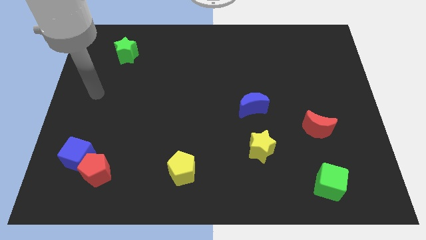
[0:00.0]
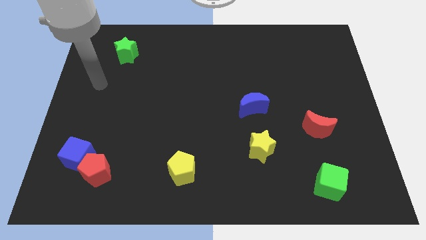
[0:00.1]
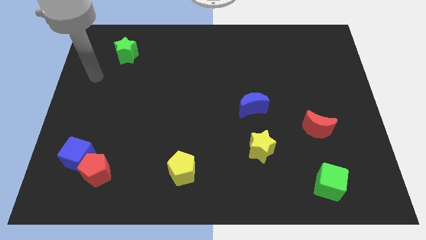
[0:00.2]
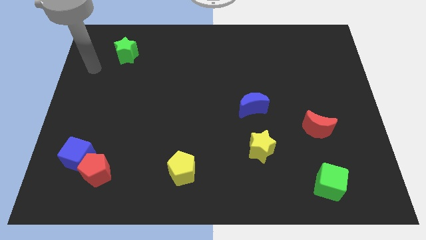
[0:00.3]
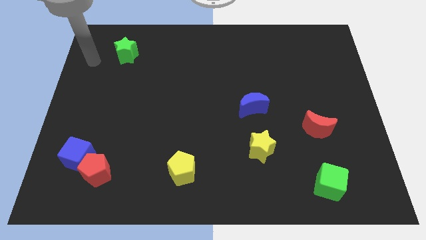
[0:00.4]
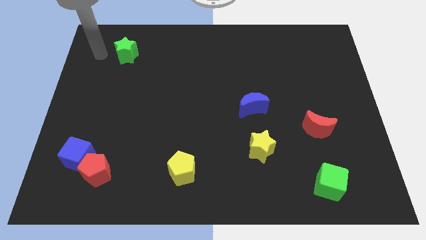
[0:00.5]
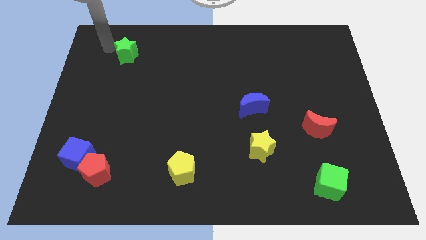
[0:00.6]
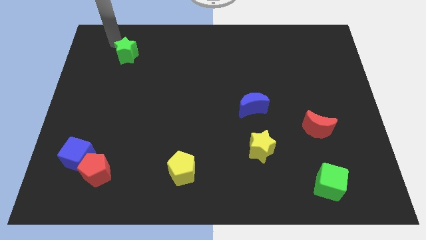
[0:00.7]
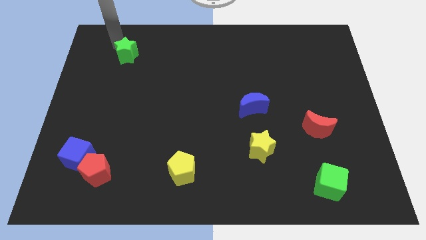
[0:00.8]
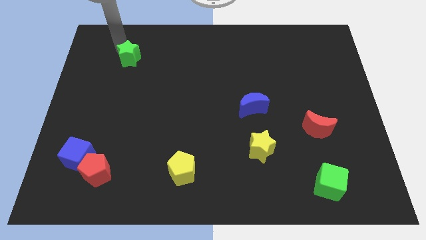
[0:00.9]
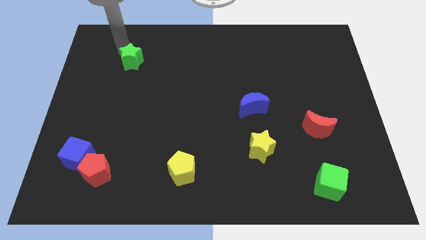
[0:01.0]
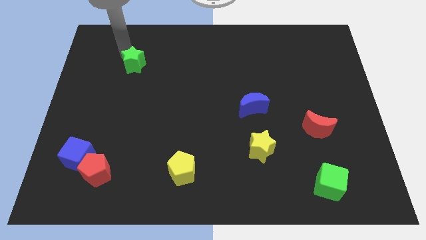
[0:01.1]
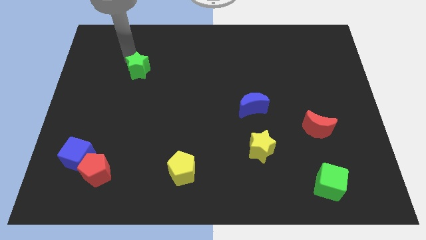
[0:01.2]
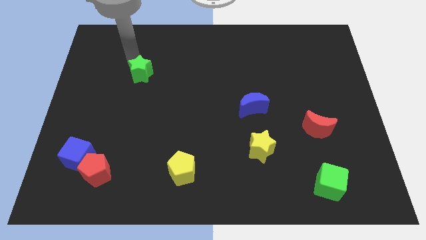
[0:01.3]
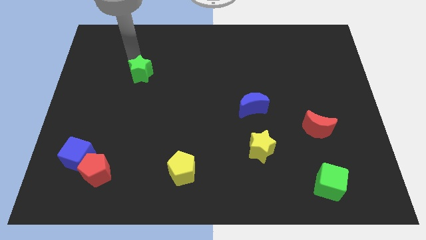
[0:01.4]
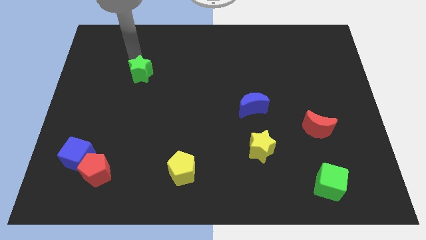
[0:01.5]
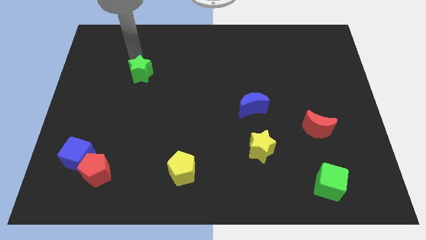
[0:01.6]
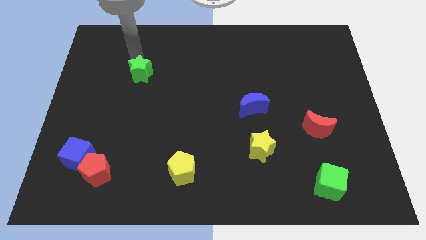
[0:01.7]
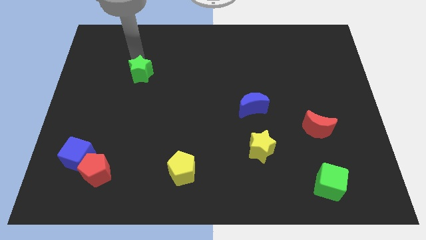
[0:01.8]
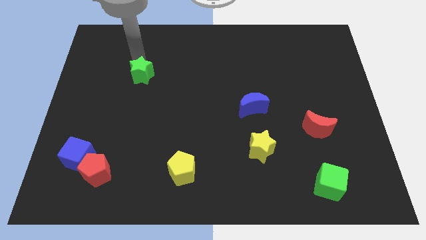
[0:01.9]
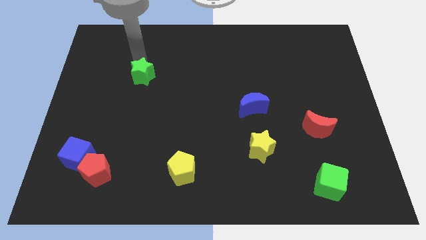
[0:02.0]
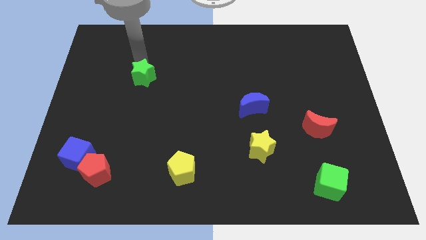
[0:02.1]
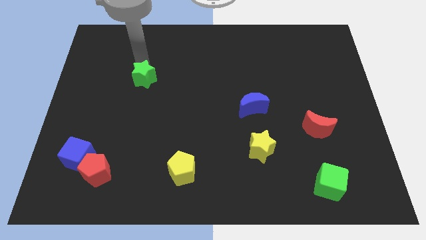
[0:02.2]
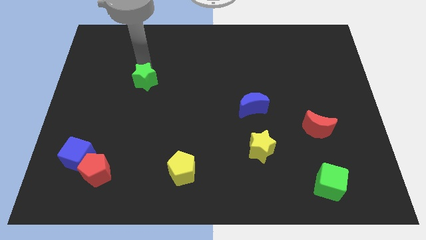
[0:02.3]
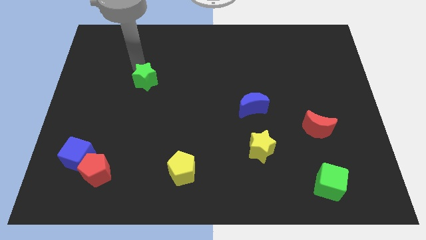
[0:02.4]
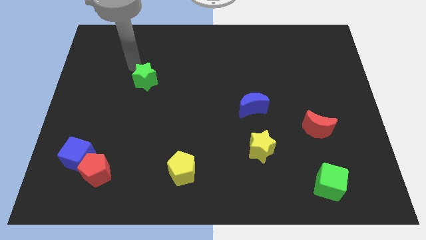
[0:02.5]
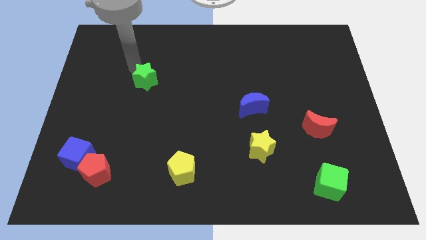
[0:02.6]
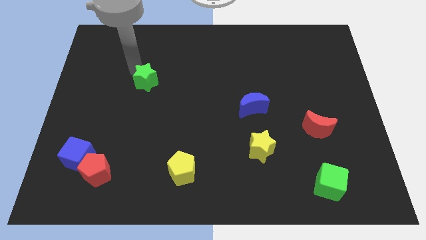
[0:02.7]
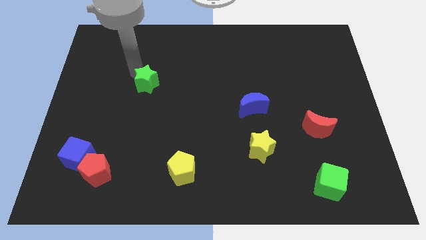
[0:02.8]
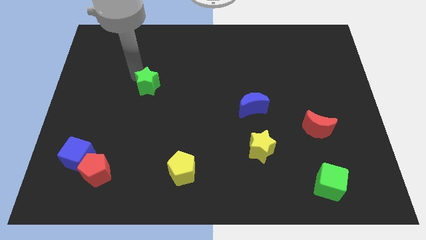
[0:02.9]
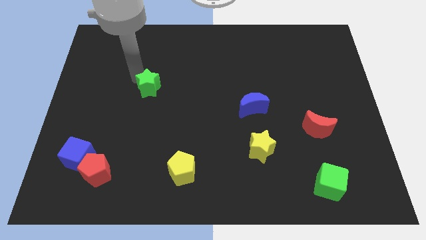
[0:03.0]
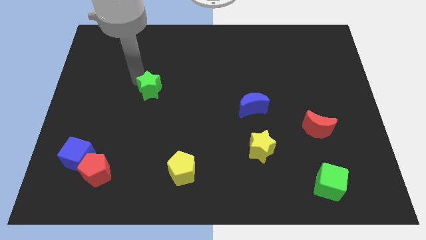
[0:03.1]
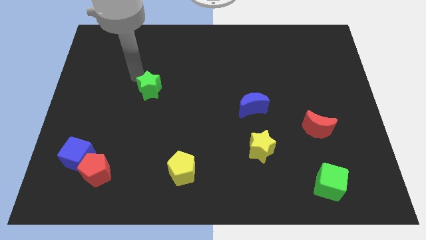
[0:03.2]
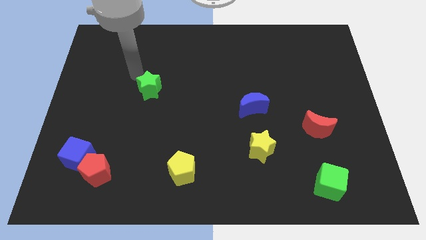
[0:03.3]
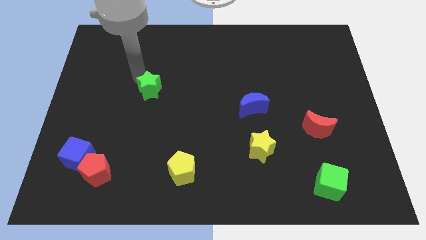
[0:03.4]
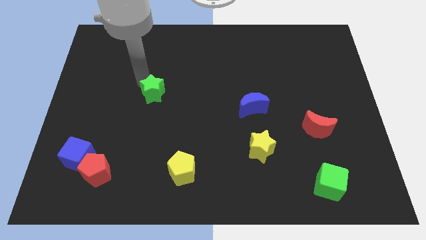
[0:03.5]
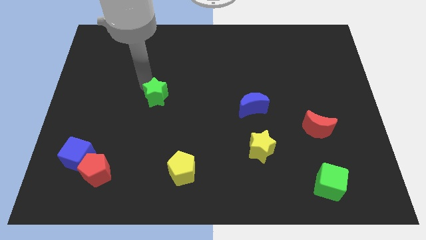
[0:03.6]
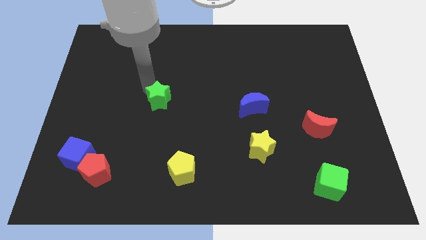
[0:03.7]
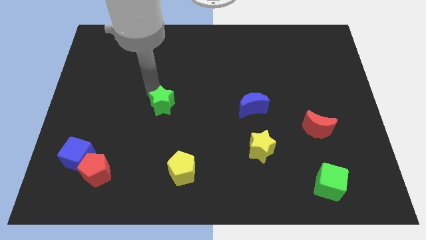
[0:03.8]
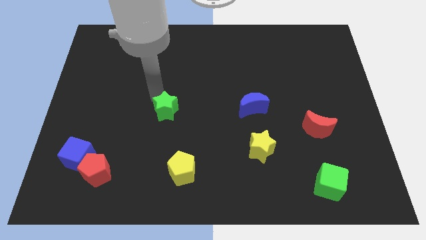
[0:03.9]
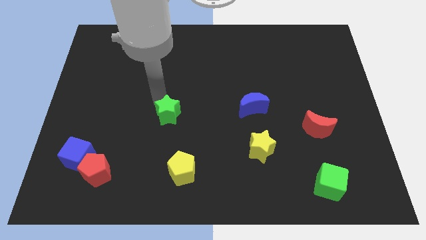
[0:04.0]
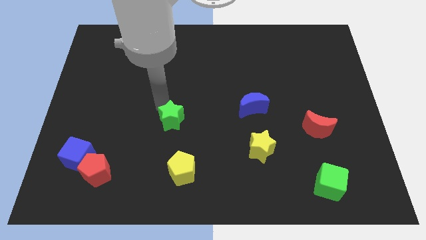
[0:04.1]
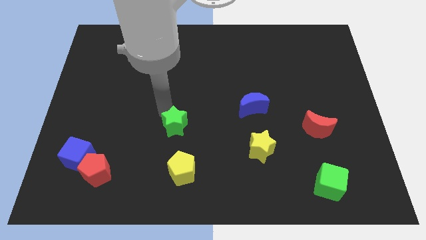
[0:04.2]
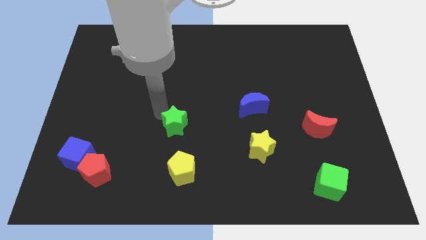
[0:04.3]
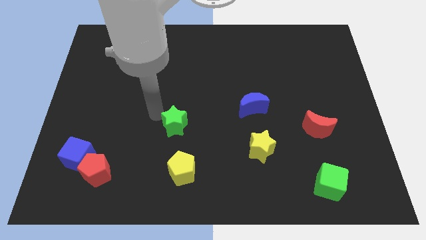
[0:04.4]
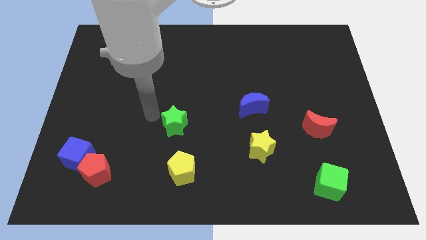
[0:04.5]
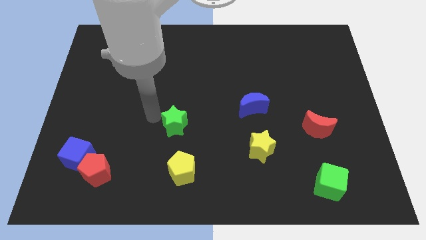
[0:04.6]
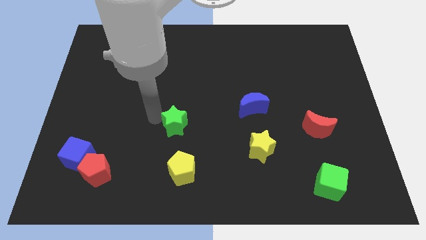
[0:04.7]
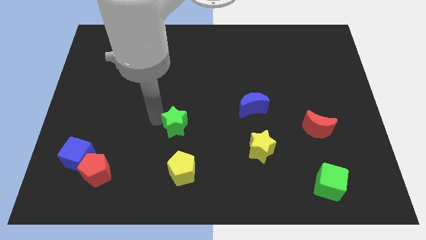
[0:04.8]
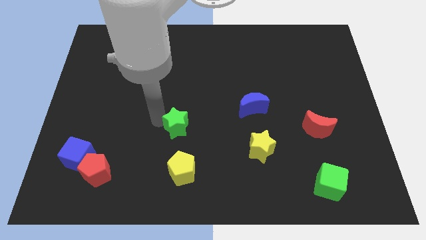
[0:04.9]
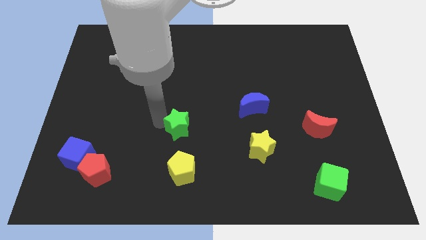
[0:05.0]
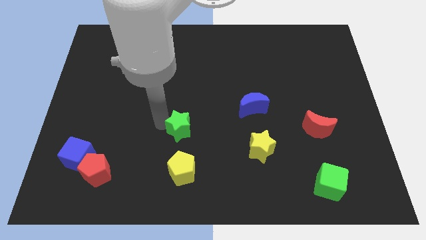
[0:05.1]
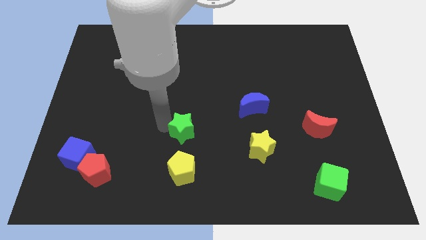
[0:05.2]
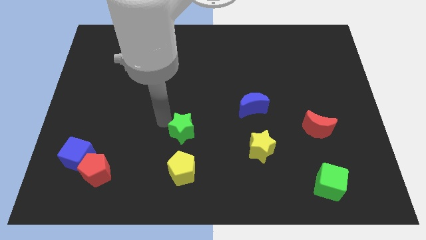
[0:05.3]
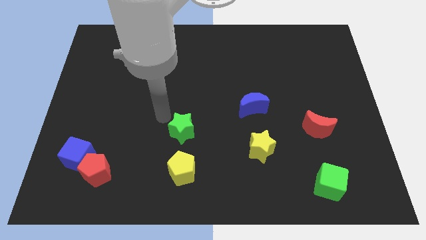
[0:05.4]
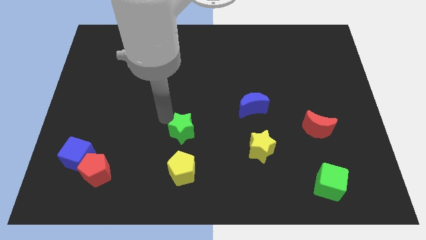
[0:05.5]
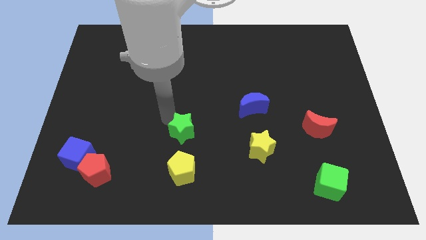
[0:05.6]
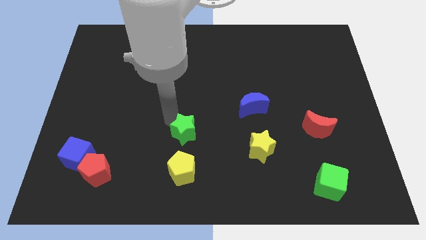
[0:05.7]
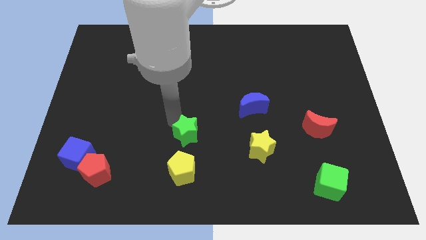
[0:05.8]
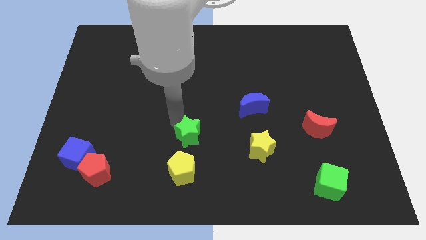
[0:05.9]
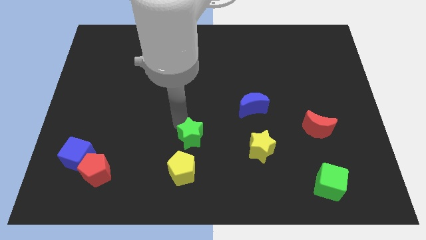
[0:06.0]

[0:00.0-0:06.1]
slide the green star diagonally up and to the right of the yellow pentagon

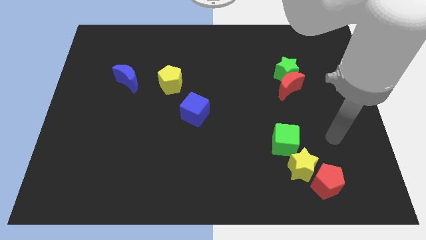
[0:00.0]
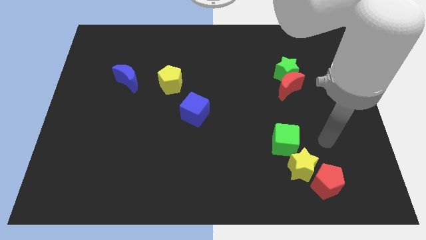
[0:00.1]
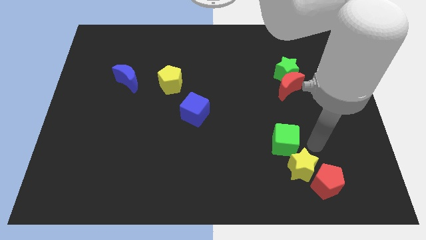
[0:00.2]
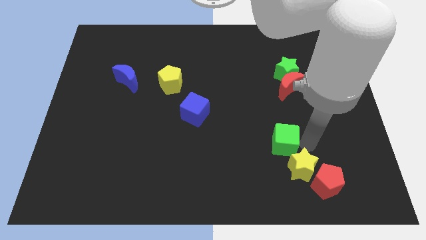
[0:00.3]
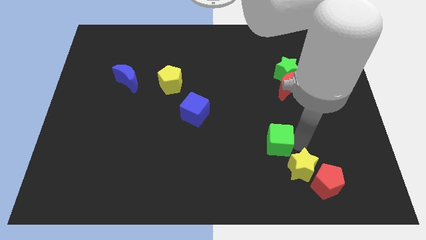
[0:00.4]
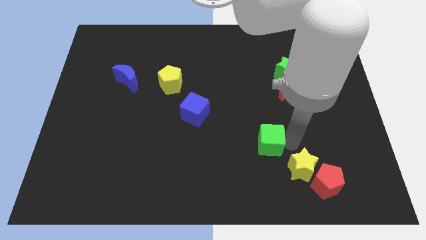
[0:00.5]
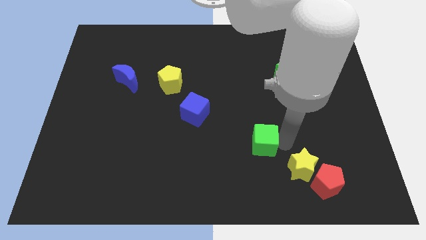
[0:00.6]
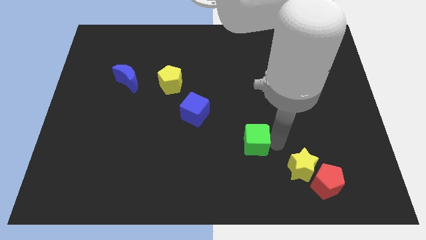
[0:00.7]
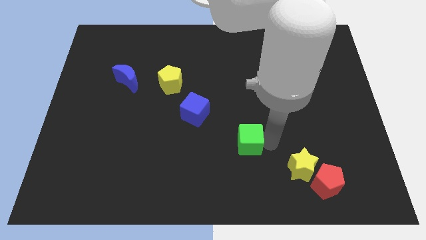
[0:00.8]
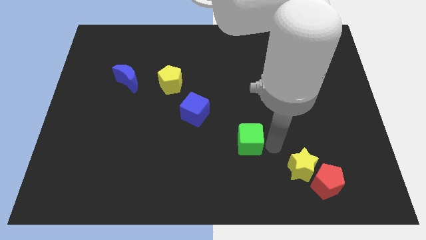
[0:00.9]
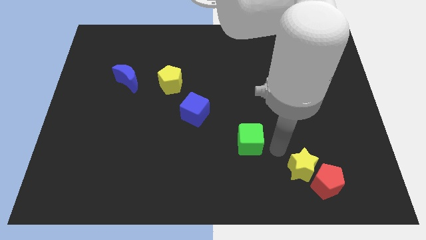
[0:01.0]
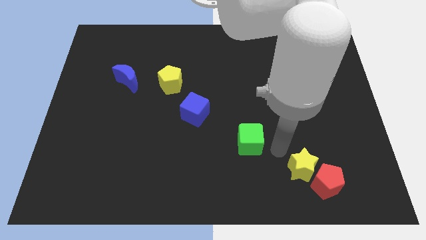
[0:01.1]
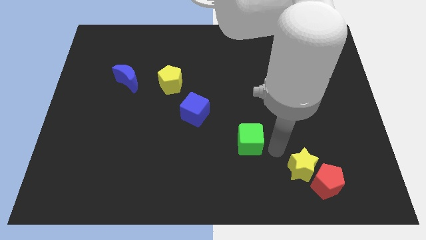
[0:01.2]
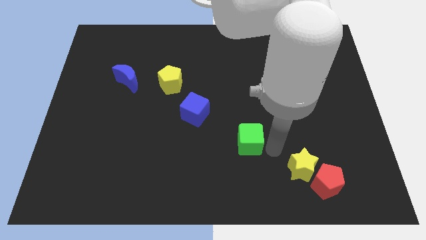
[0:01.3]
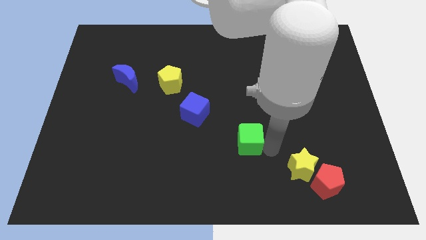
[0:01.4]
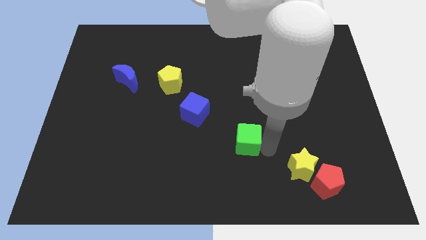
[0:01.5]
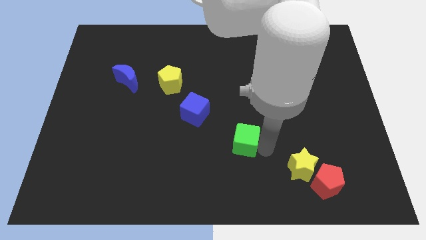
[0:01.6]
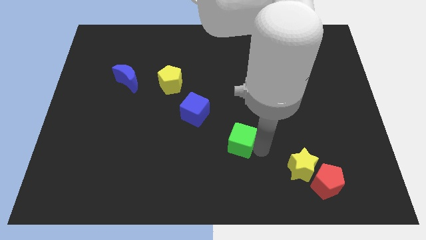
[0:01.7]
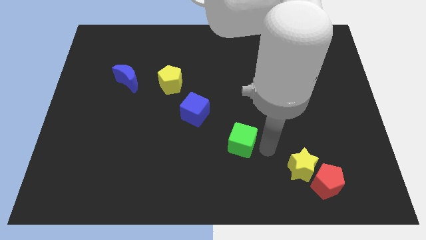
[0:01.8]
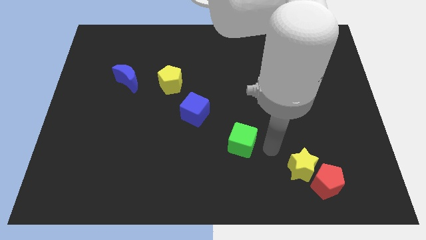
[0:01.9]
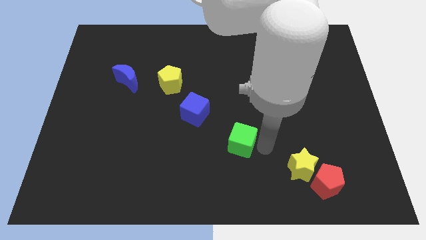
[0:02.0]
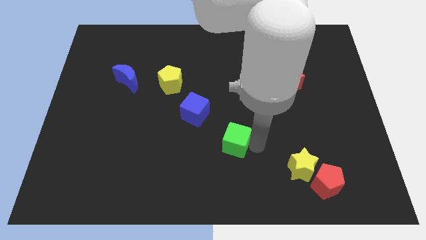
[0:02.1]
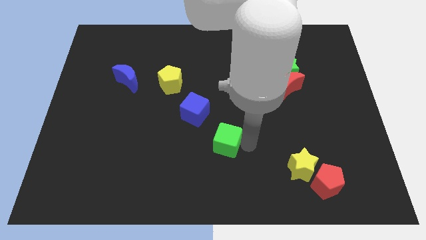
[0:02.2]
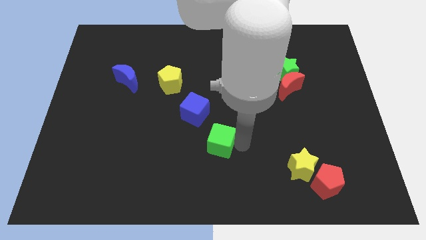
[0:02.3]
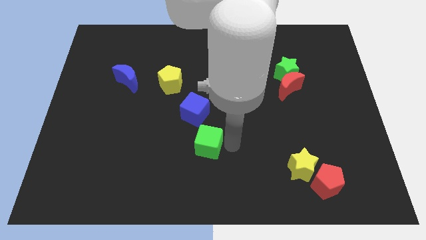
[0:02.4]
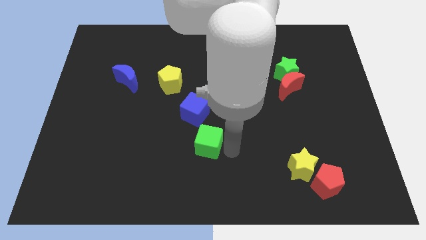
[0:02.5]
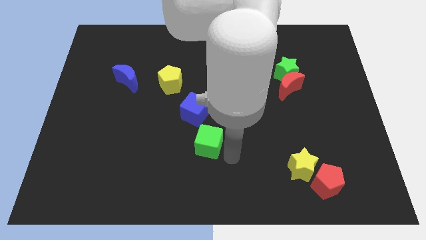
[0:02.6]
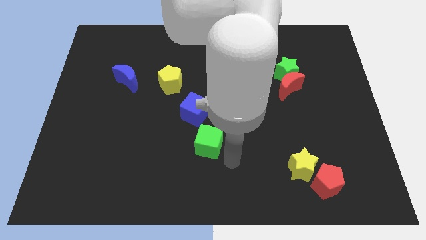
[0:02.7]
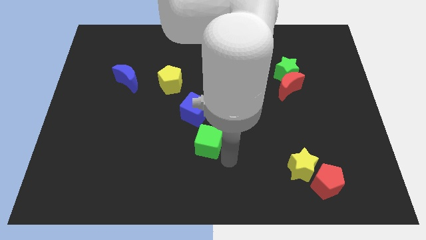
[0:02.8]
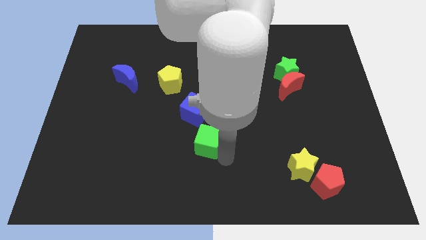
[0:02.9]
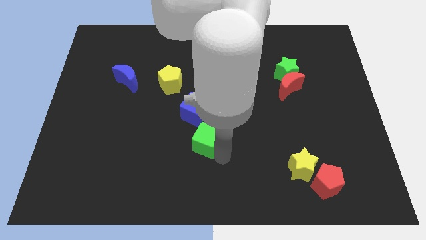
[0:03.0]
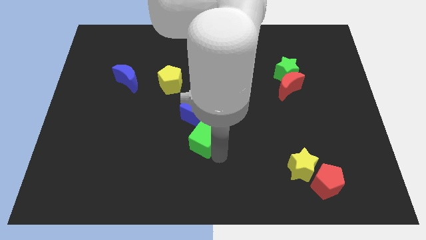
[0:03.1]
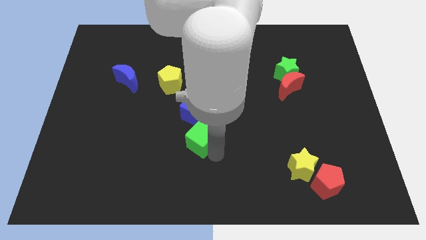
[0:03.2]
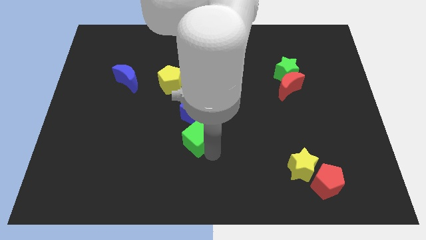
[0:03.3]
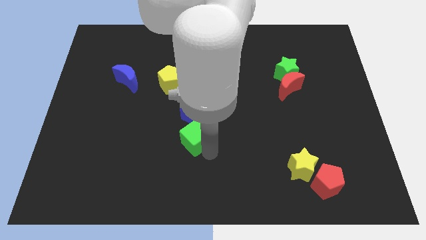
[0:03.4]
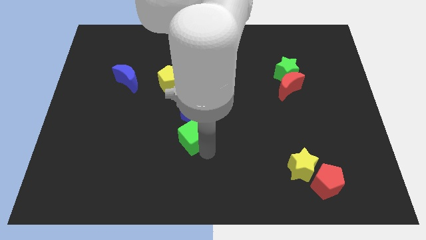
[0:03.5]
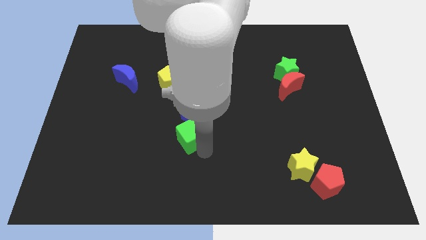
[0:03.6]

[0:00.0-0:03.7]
push the green cube diagonally down and to the left of the blue cube
